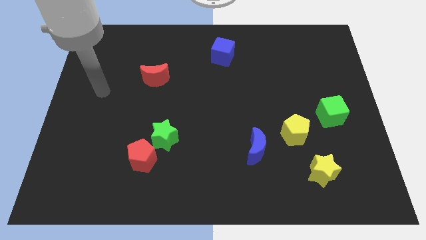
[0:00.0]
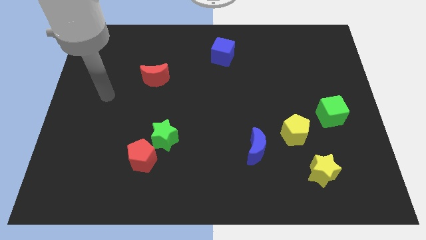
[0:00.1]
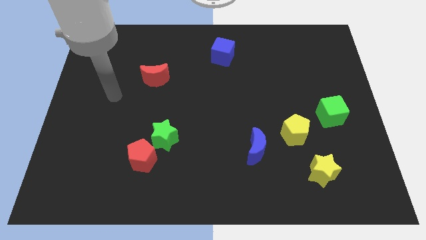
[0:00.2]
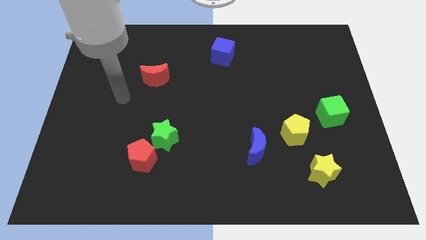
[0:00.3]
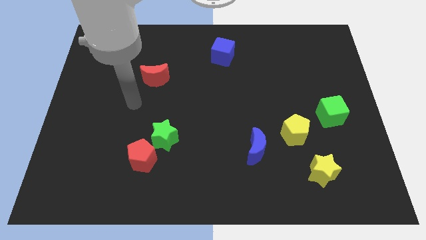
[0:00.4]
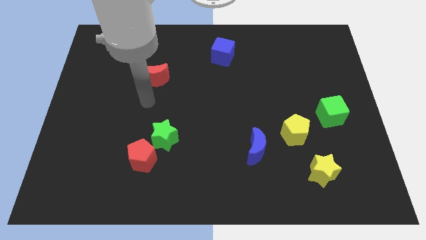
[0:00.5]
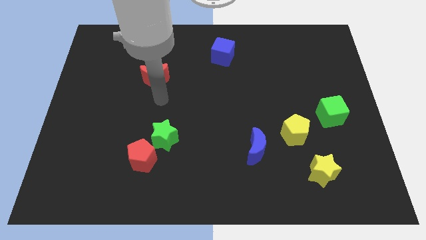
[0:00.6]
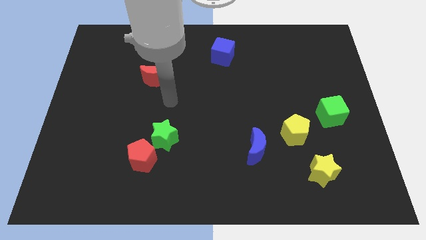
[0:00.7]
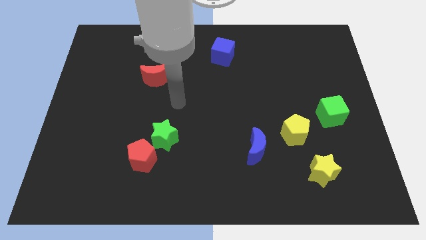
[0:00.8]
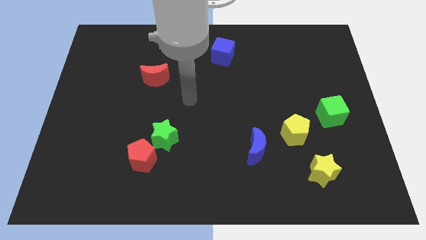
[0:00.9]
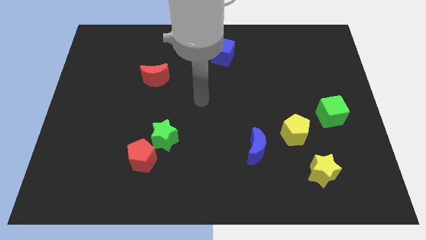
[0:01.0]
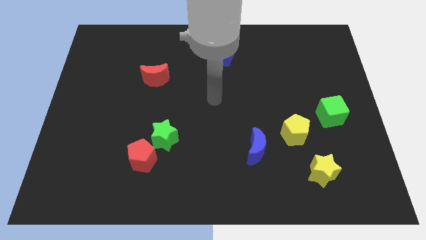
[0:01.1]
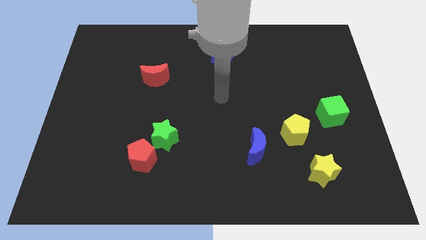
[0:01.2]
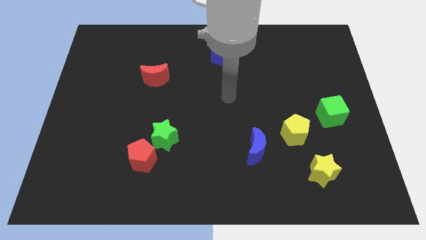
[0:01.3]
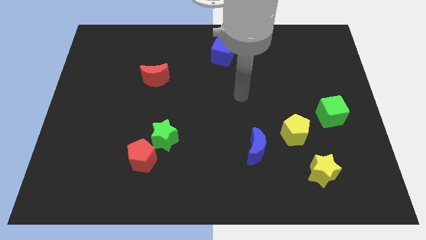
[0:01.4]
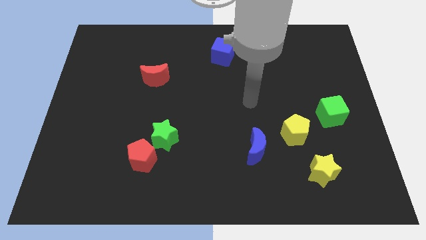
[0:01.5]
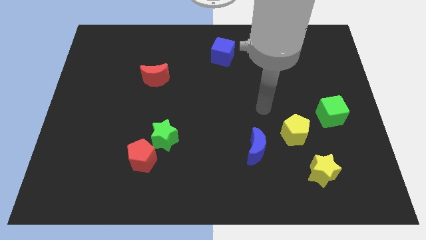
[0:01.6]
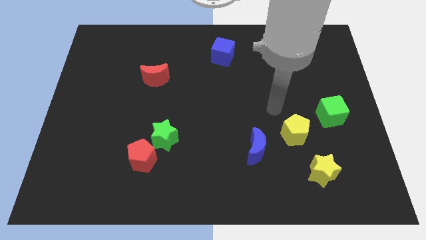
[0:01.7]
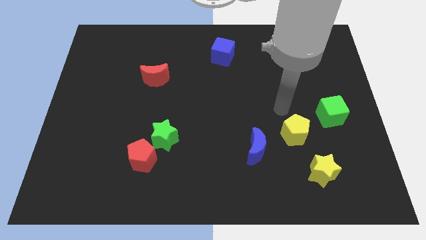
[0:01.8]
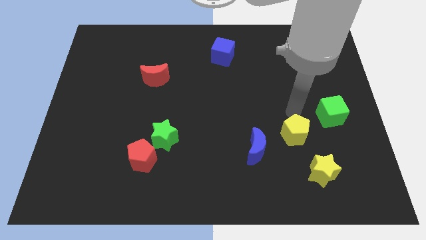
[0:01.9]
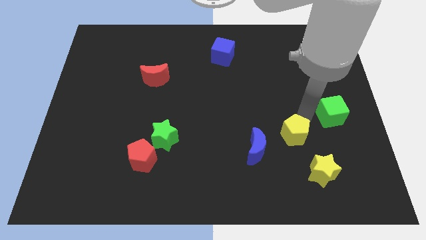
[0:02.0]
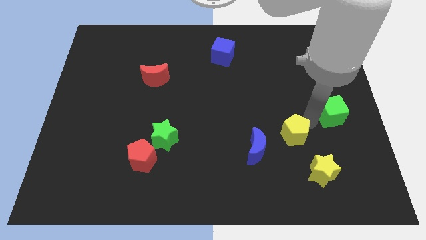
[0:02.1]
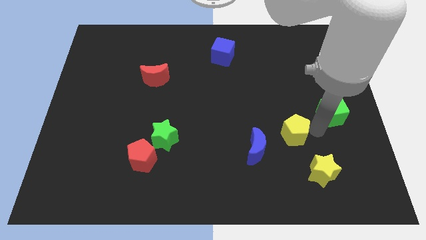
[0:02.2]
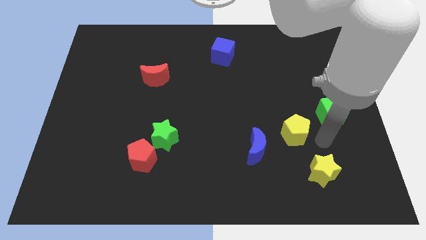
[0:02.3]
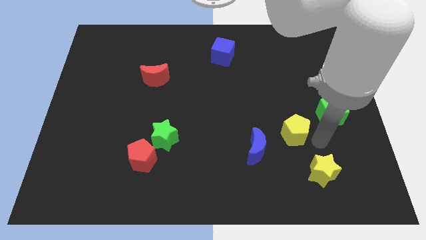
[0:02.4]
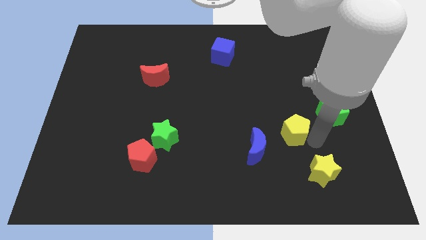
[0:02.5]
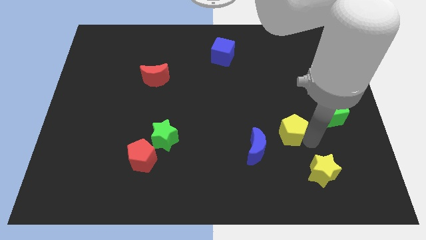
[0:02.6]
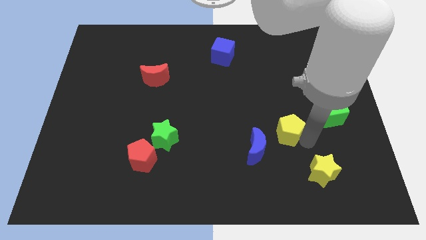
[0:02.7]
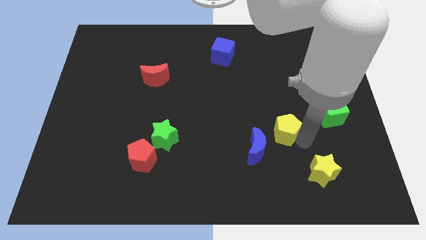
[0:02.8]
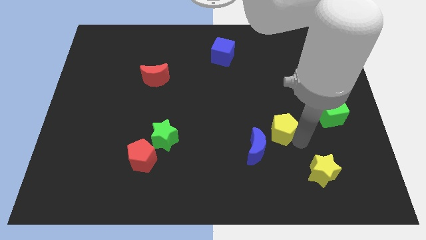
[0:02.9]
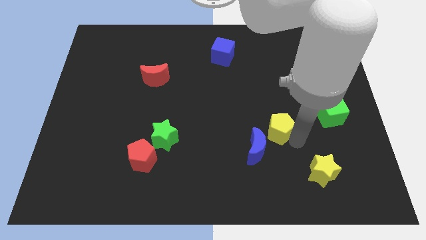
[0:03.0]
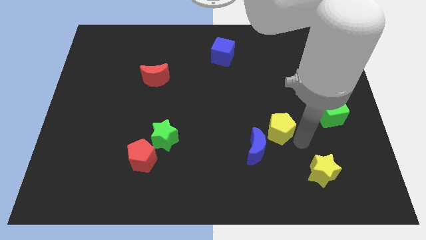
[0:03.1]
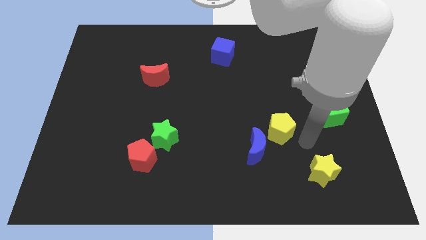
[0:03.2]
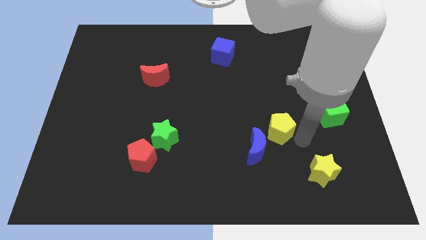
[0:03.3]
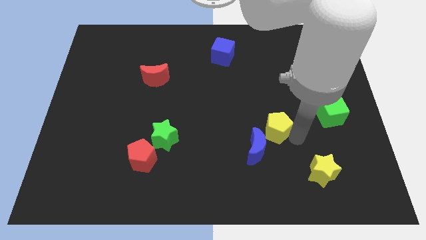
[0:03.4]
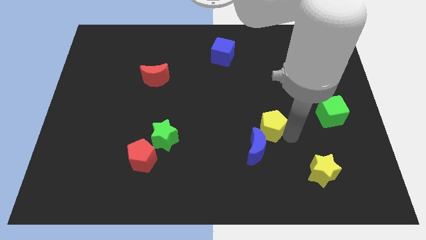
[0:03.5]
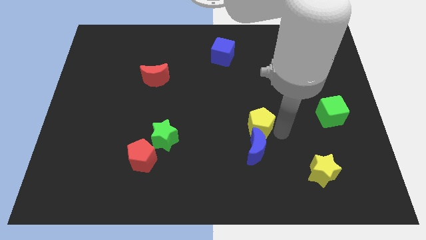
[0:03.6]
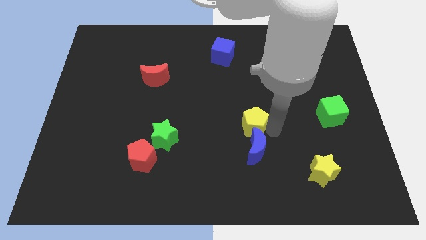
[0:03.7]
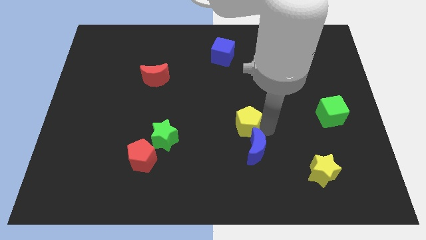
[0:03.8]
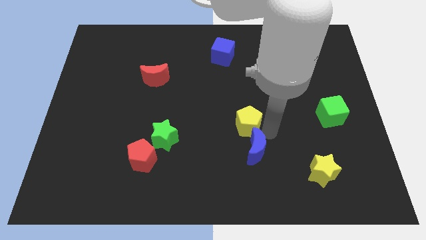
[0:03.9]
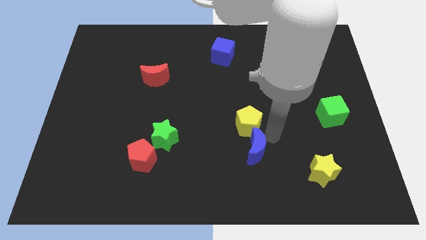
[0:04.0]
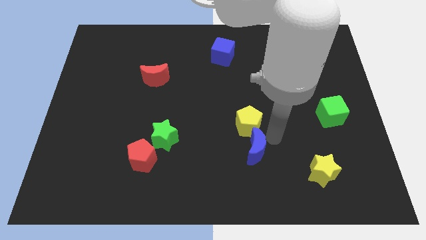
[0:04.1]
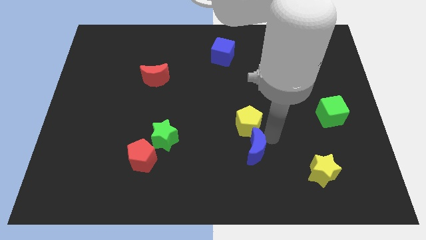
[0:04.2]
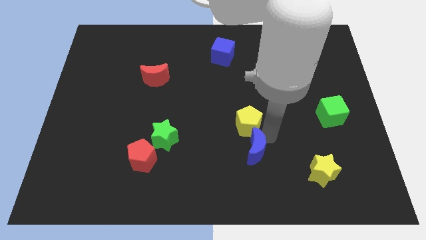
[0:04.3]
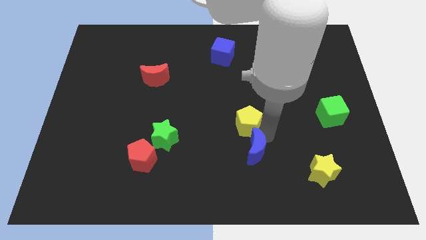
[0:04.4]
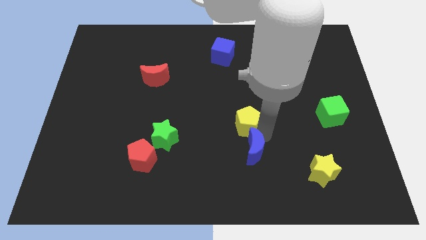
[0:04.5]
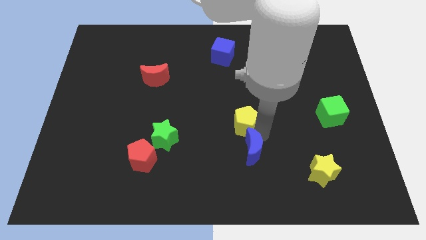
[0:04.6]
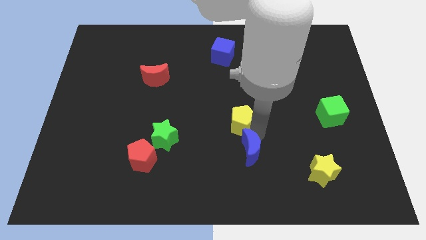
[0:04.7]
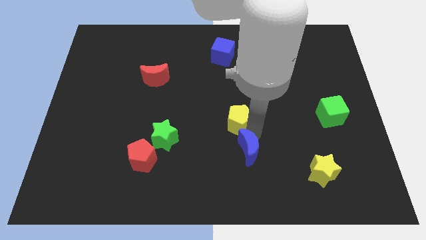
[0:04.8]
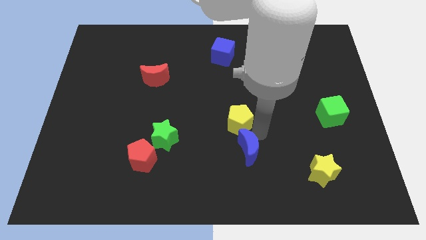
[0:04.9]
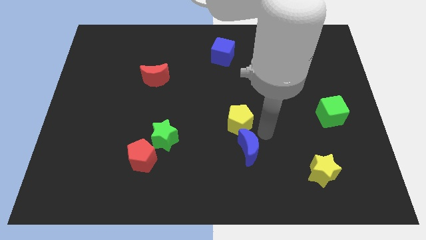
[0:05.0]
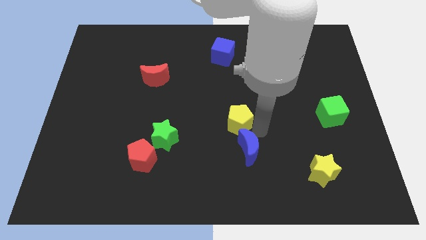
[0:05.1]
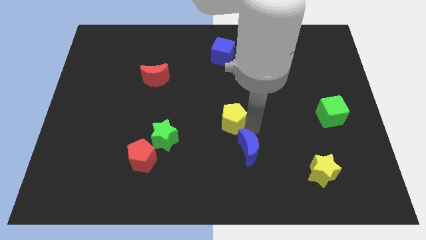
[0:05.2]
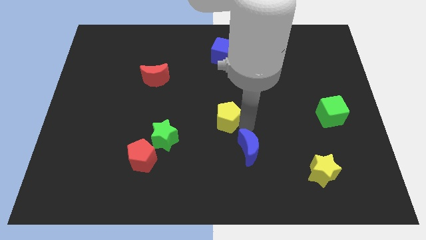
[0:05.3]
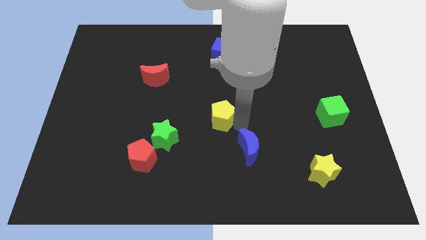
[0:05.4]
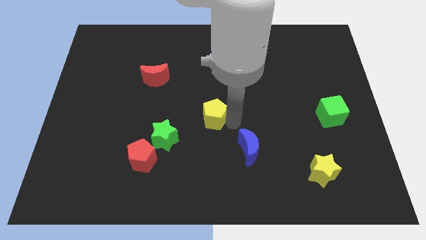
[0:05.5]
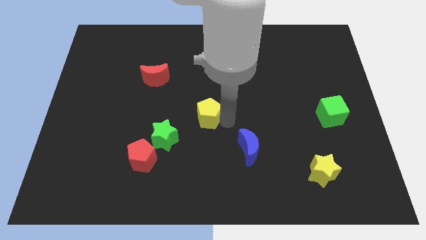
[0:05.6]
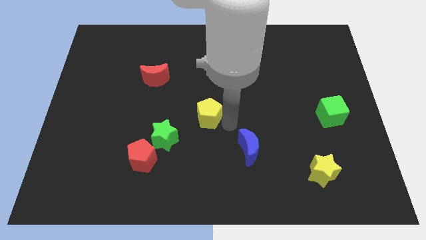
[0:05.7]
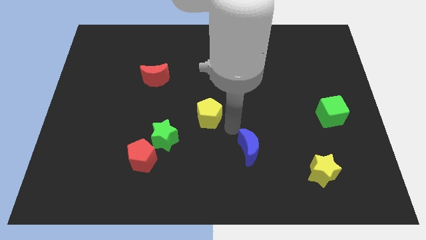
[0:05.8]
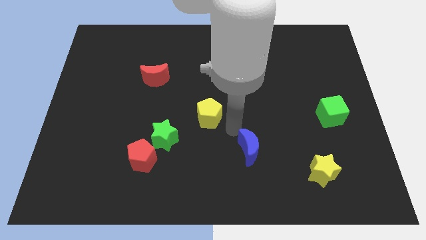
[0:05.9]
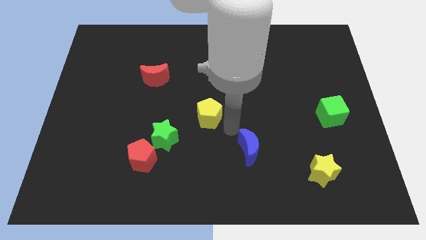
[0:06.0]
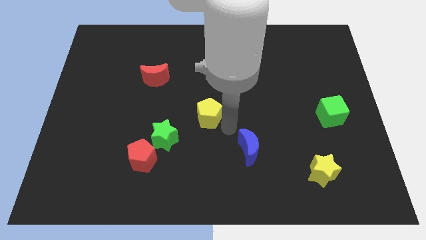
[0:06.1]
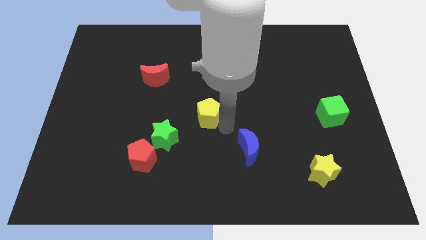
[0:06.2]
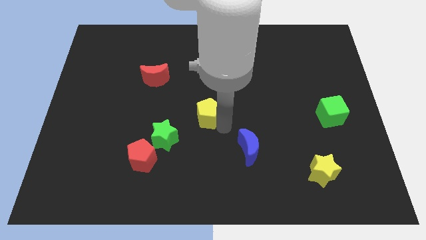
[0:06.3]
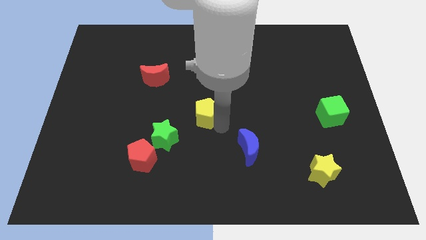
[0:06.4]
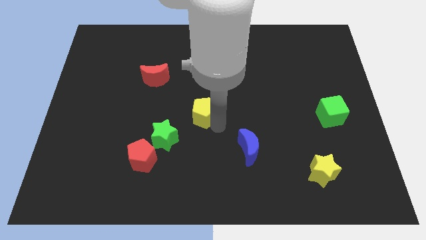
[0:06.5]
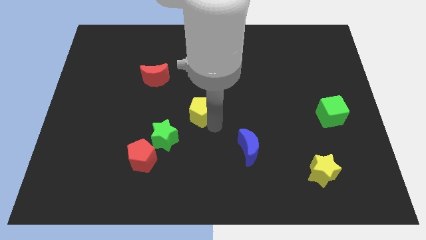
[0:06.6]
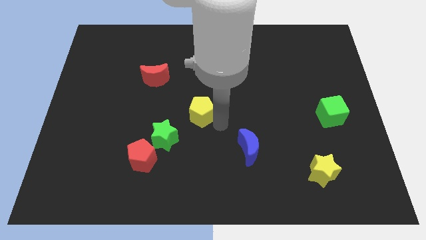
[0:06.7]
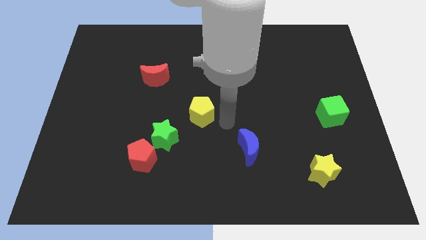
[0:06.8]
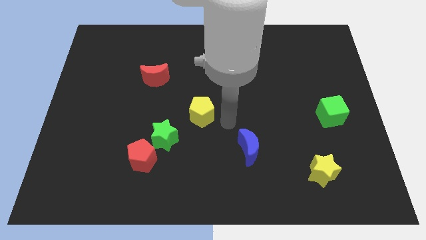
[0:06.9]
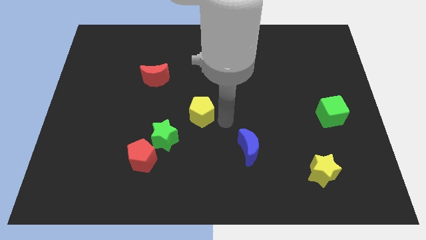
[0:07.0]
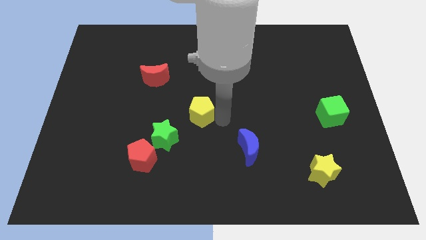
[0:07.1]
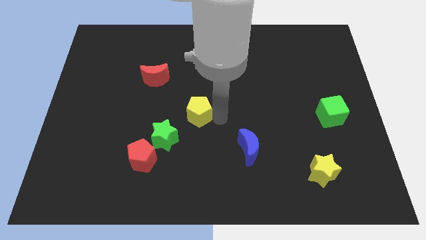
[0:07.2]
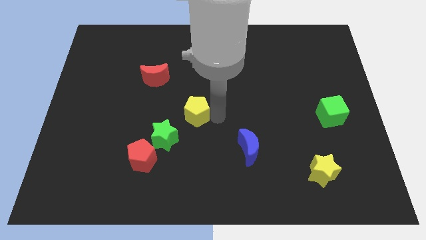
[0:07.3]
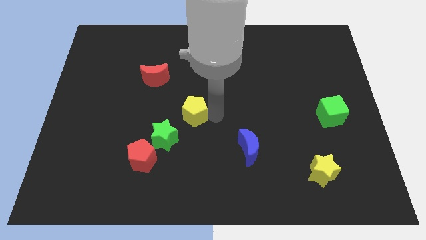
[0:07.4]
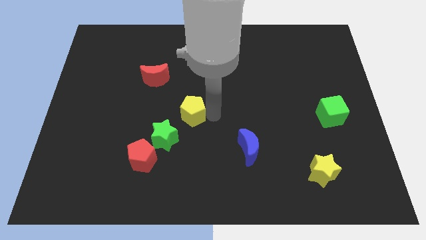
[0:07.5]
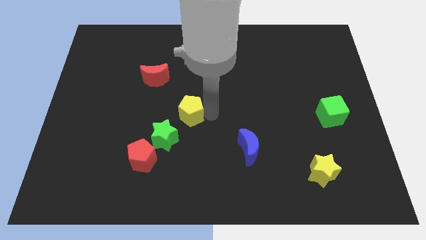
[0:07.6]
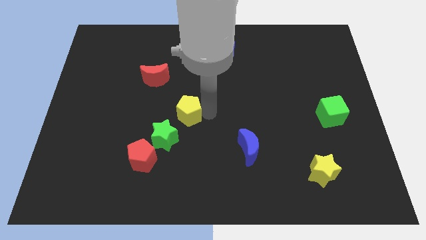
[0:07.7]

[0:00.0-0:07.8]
put the yellow pentagon to the top of the green star
